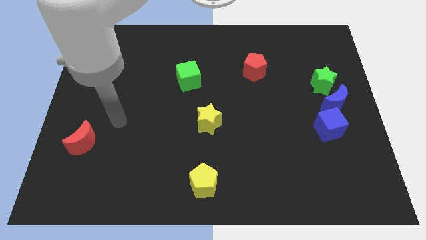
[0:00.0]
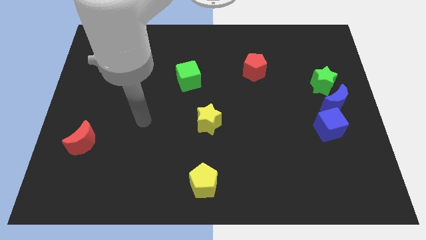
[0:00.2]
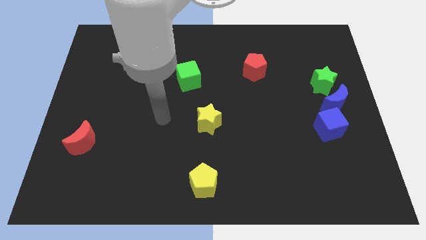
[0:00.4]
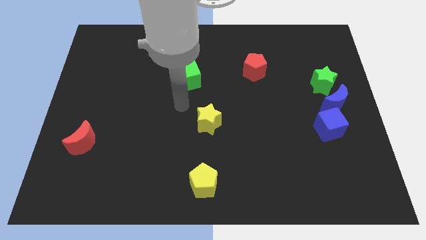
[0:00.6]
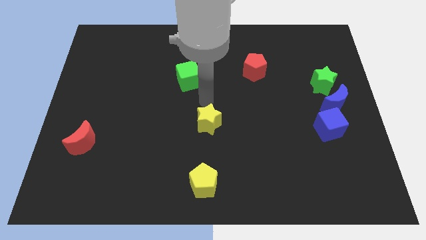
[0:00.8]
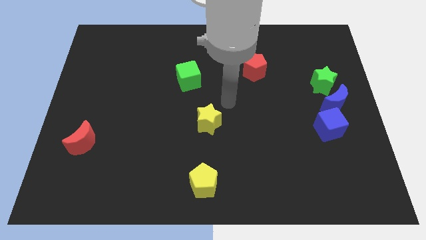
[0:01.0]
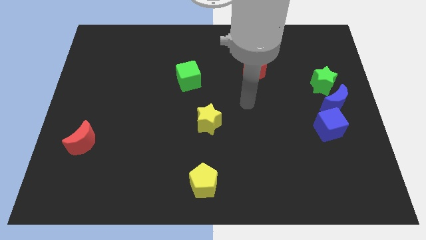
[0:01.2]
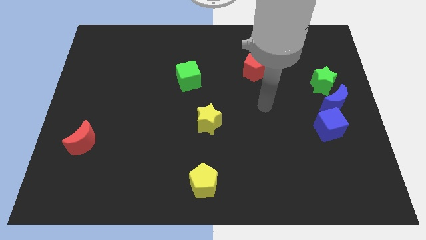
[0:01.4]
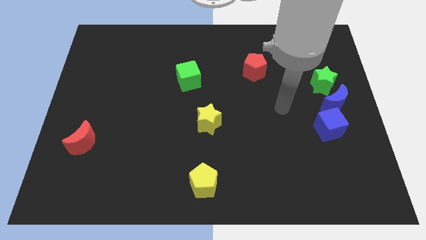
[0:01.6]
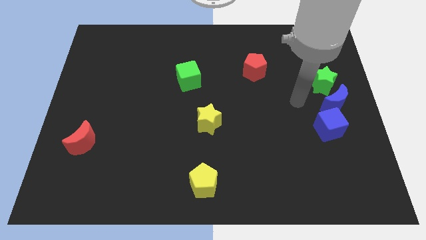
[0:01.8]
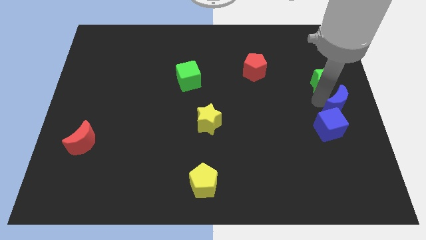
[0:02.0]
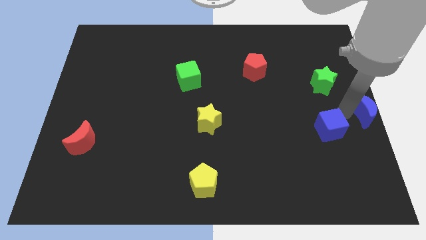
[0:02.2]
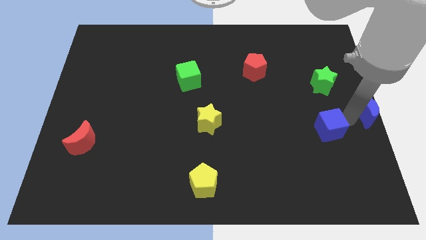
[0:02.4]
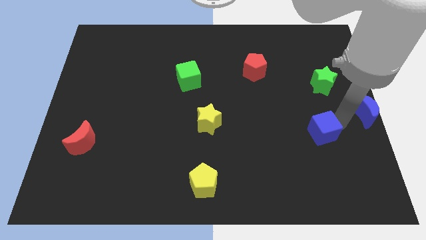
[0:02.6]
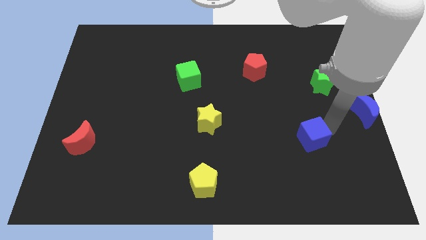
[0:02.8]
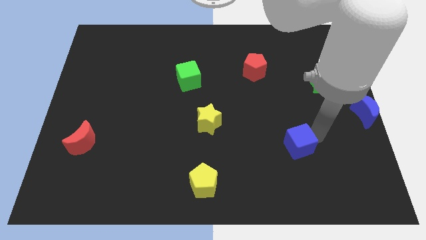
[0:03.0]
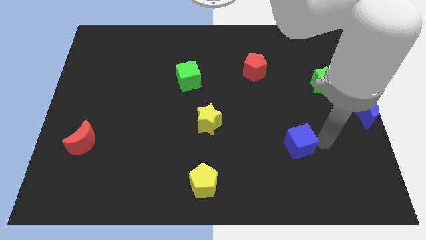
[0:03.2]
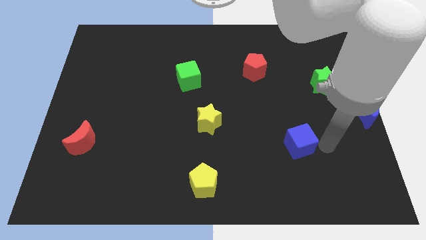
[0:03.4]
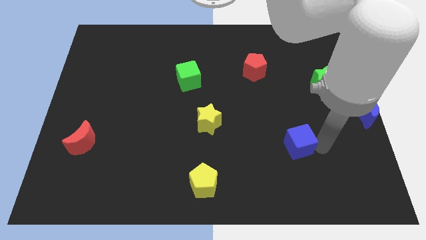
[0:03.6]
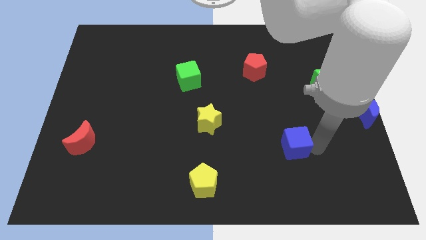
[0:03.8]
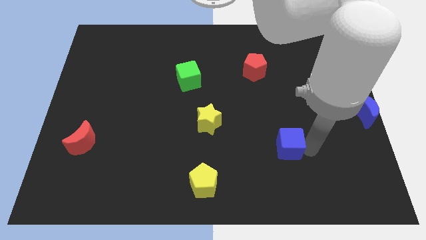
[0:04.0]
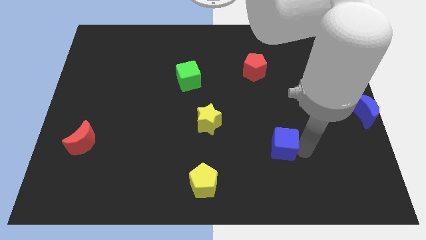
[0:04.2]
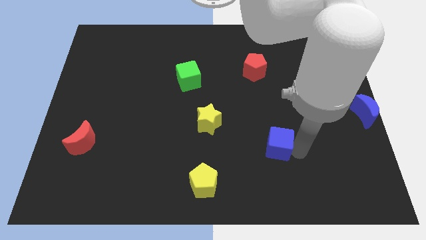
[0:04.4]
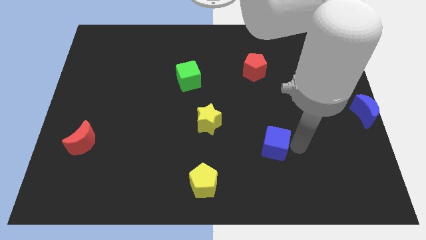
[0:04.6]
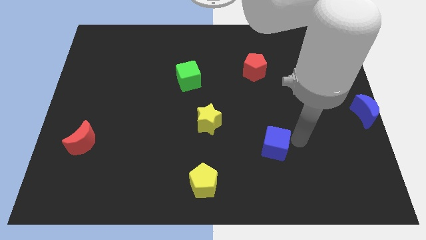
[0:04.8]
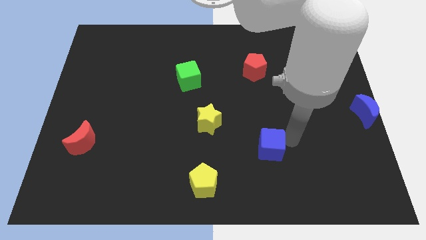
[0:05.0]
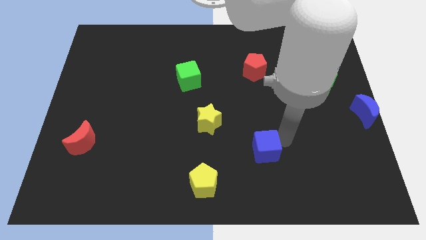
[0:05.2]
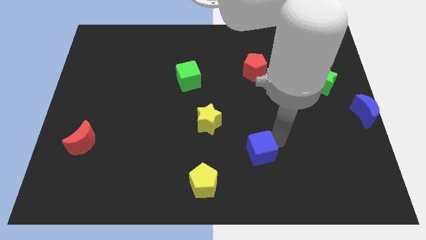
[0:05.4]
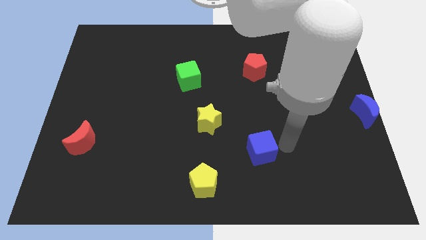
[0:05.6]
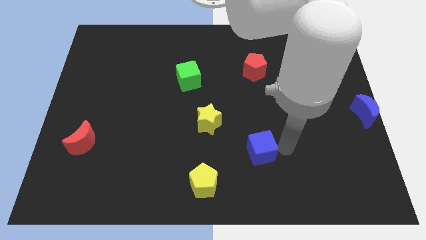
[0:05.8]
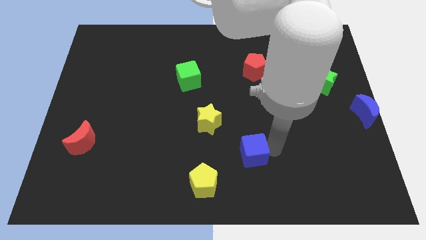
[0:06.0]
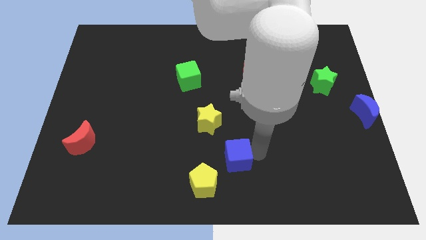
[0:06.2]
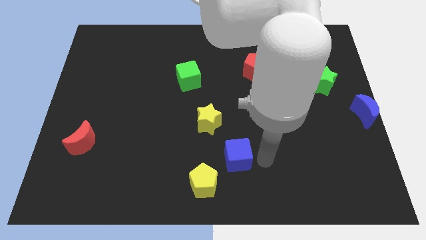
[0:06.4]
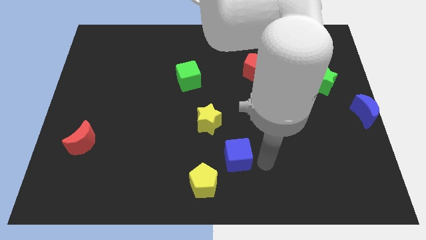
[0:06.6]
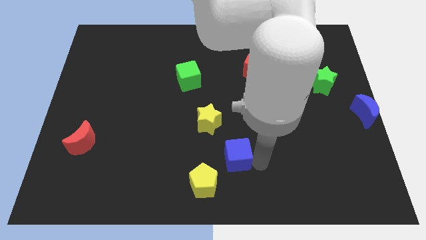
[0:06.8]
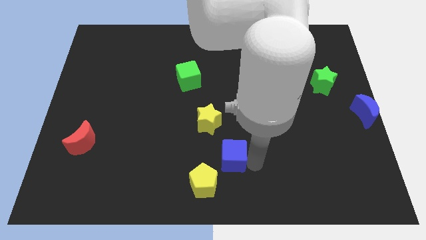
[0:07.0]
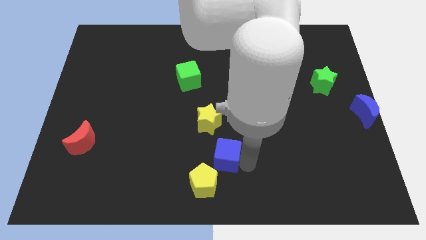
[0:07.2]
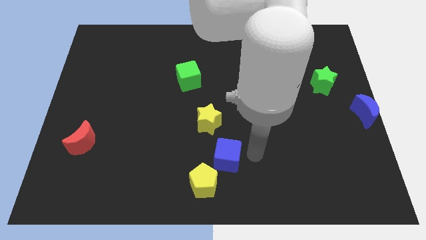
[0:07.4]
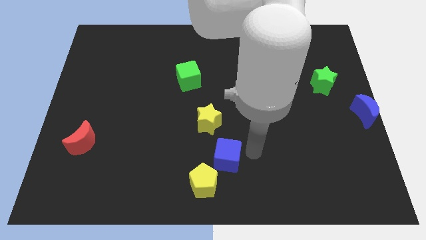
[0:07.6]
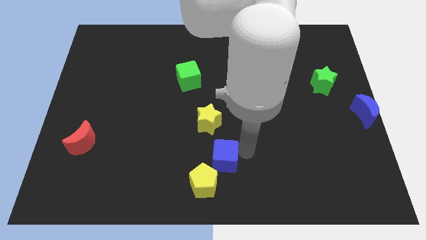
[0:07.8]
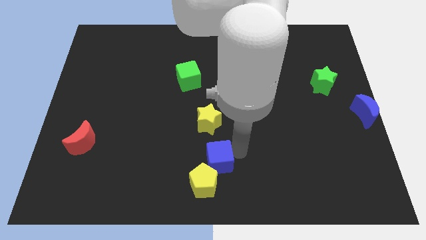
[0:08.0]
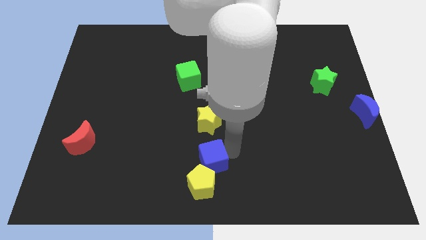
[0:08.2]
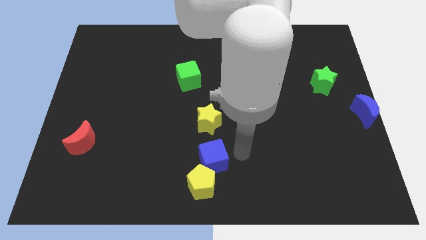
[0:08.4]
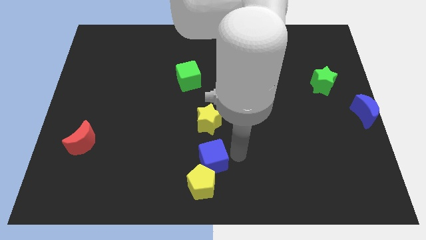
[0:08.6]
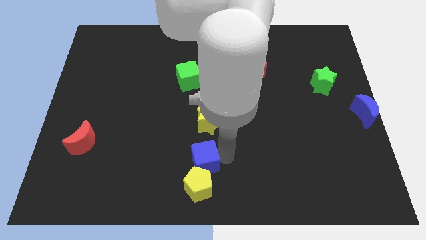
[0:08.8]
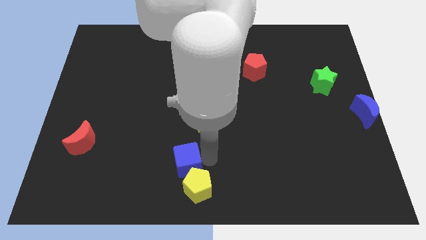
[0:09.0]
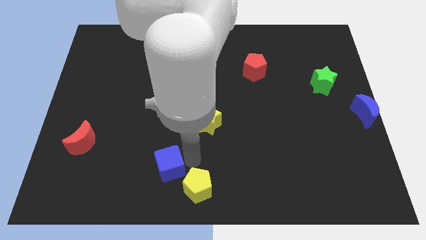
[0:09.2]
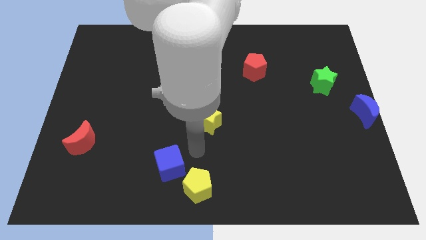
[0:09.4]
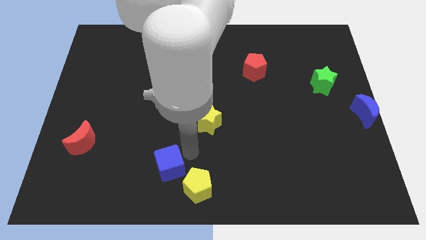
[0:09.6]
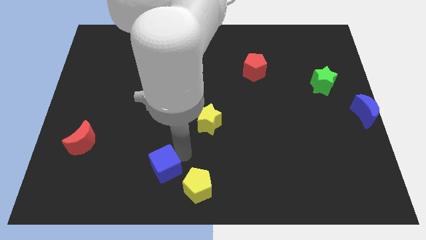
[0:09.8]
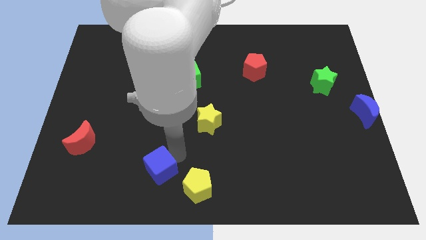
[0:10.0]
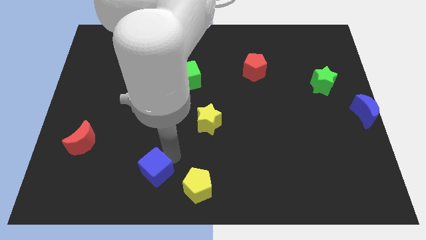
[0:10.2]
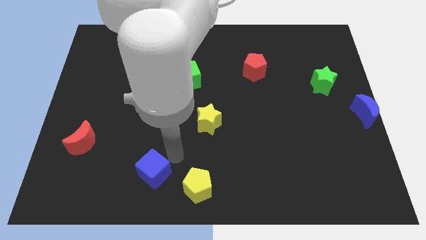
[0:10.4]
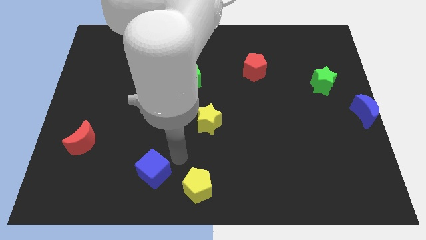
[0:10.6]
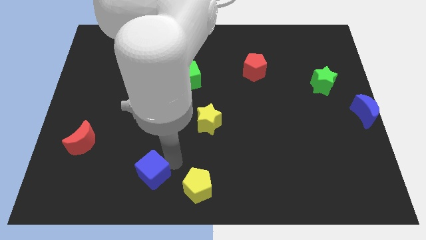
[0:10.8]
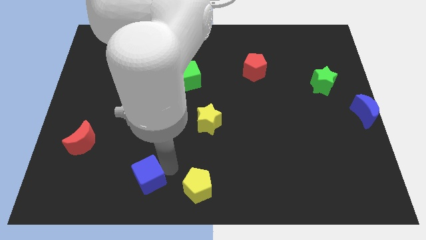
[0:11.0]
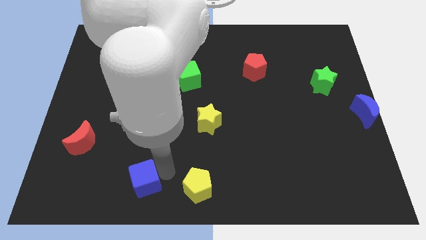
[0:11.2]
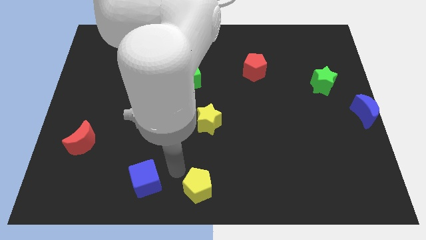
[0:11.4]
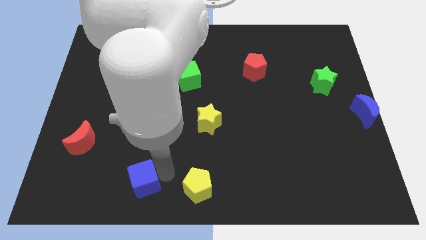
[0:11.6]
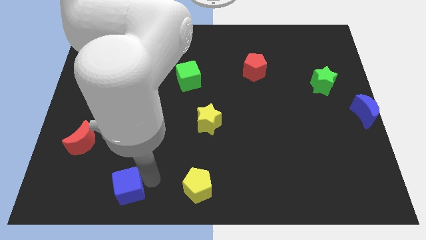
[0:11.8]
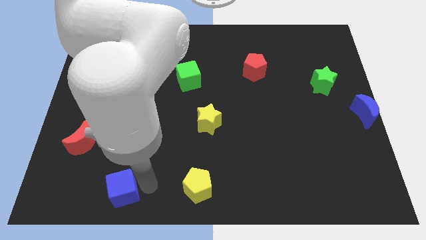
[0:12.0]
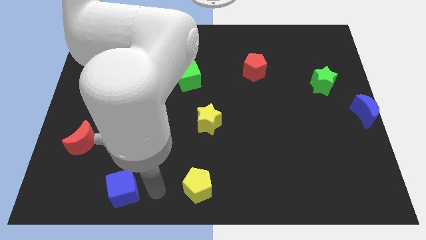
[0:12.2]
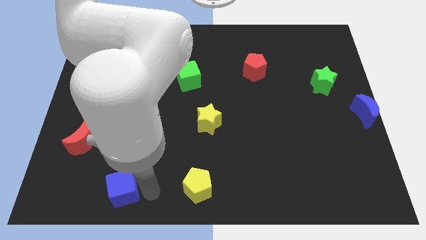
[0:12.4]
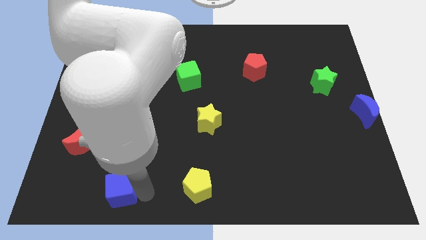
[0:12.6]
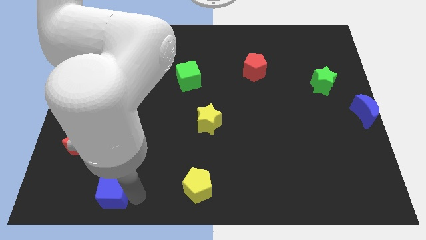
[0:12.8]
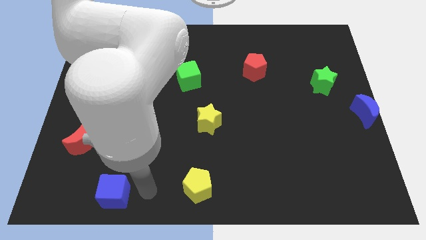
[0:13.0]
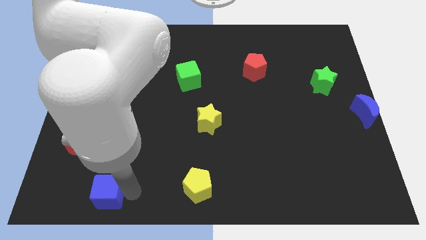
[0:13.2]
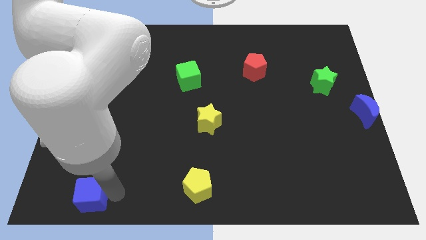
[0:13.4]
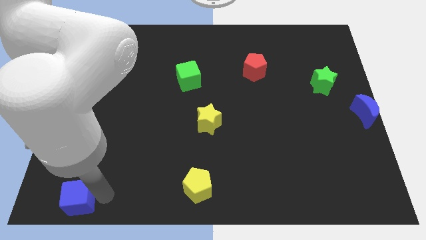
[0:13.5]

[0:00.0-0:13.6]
slide the blue cube to the bottom left
